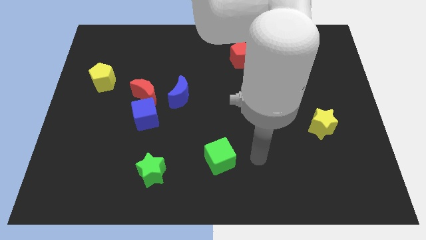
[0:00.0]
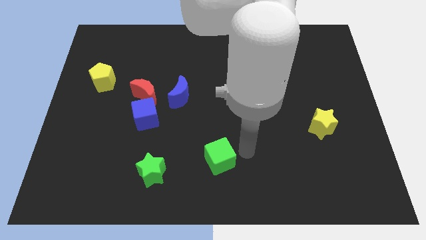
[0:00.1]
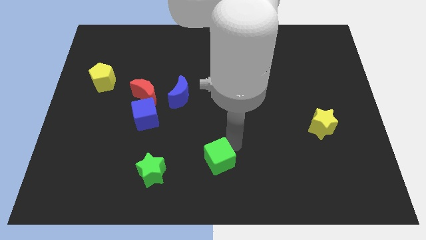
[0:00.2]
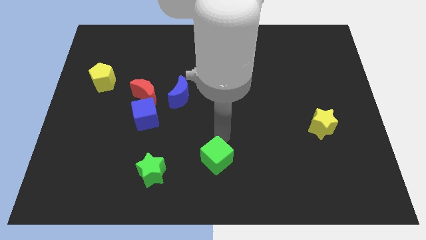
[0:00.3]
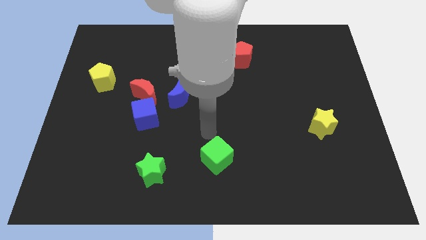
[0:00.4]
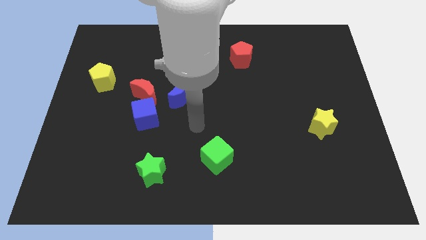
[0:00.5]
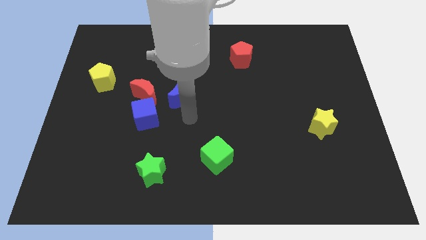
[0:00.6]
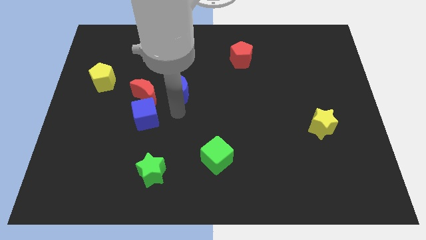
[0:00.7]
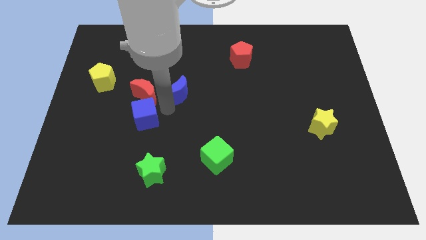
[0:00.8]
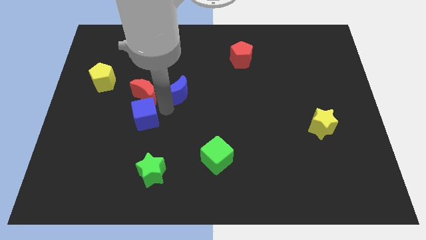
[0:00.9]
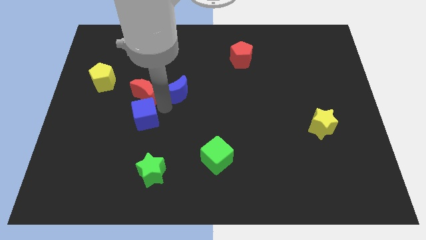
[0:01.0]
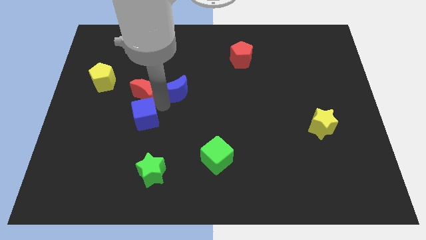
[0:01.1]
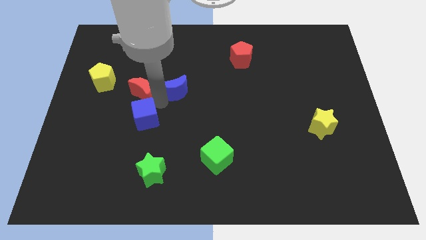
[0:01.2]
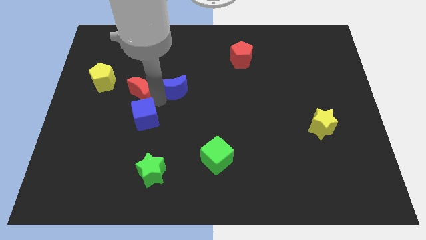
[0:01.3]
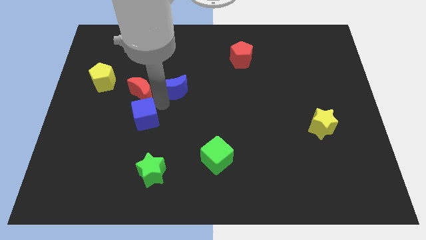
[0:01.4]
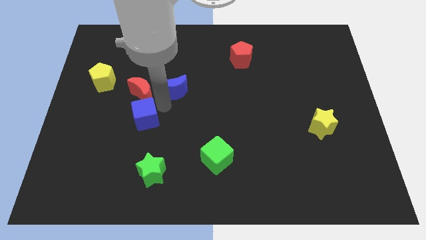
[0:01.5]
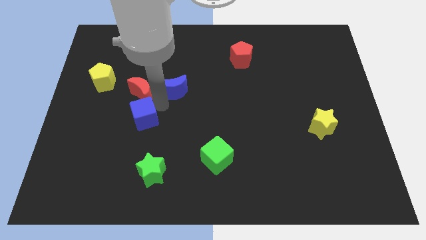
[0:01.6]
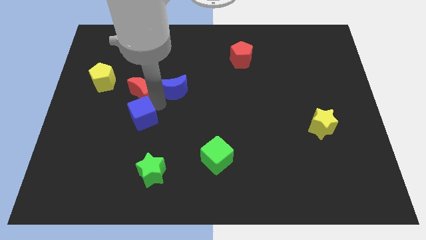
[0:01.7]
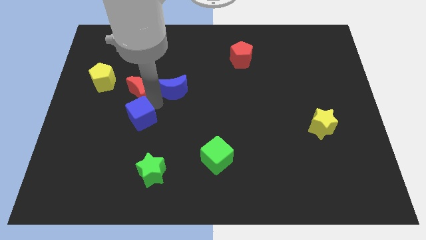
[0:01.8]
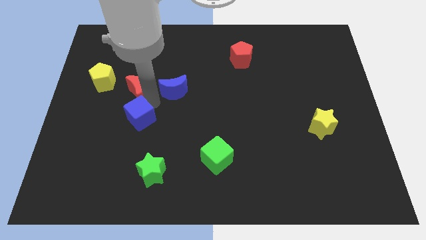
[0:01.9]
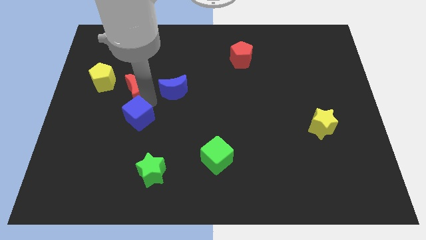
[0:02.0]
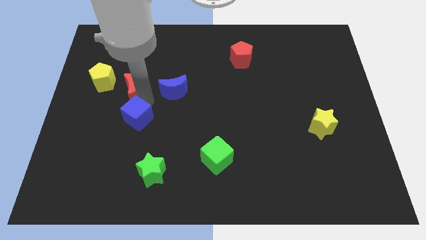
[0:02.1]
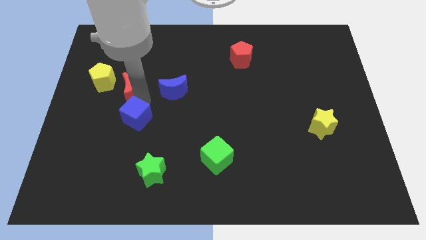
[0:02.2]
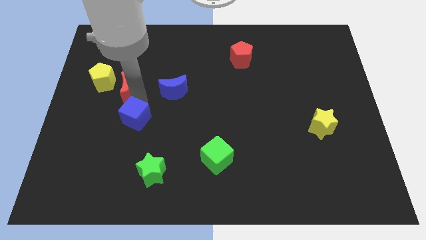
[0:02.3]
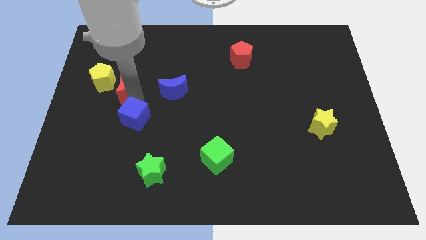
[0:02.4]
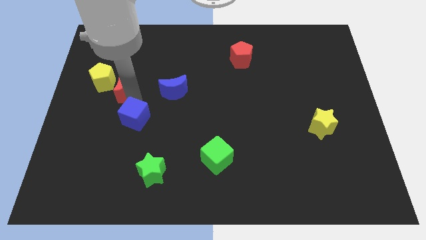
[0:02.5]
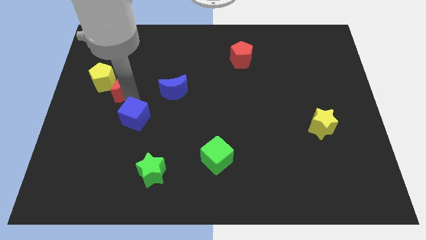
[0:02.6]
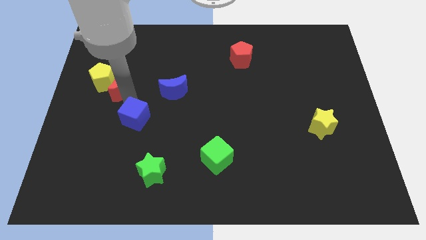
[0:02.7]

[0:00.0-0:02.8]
pull the red moon apart from the blue cube and blue moon

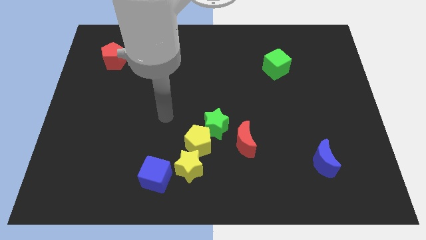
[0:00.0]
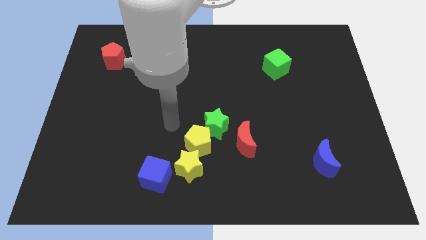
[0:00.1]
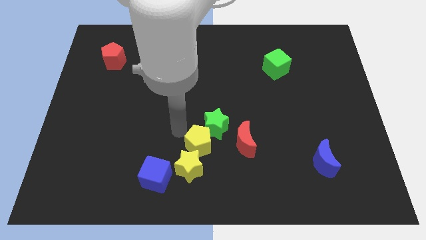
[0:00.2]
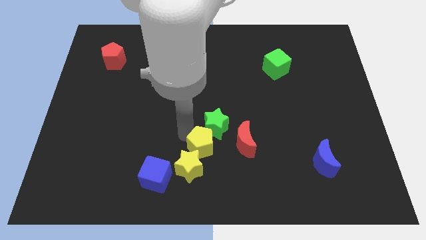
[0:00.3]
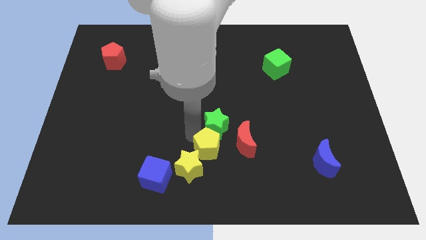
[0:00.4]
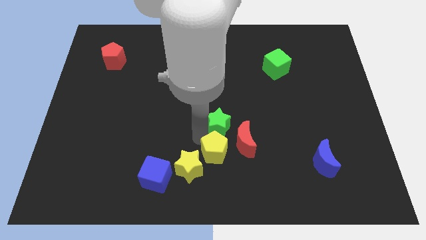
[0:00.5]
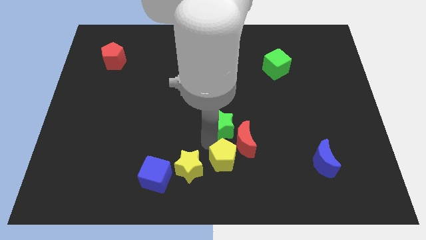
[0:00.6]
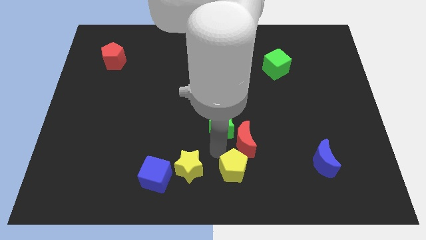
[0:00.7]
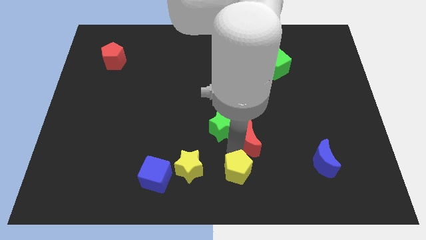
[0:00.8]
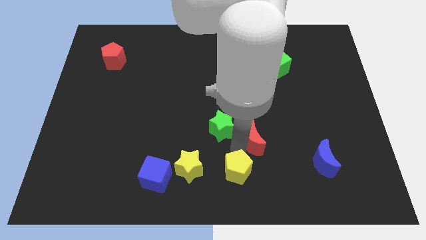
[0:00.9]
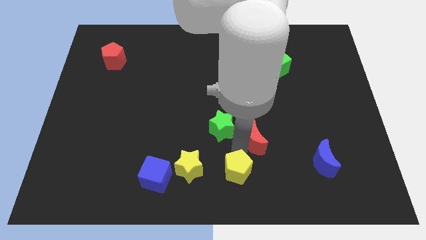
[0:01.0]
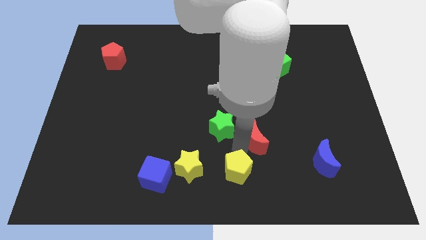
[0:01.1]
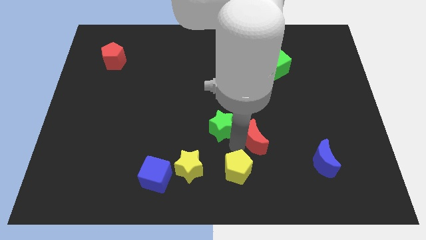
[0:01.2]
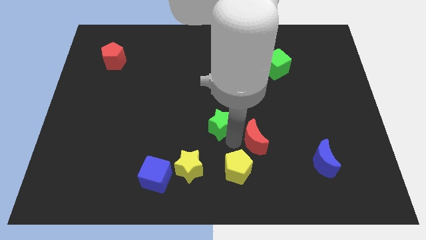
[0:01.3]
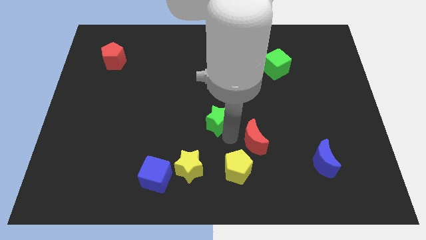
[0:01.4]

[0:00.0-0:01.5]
separate the green star from the yellow pentagon and red moon

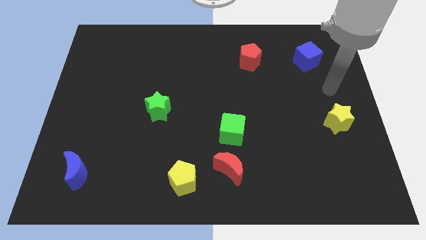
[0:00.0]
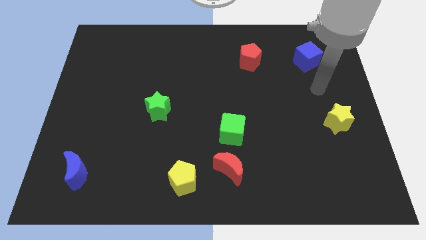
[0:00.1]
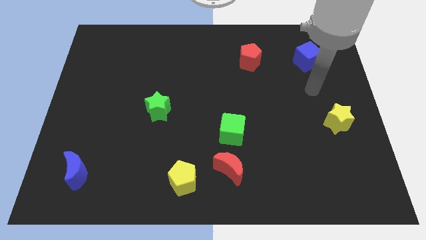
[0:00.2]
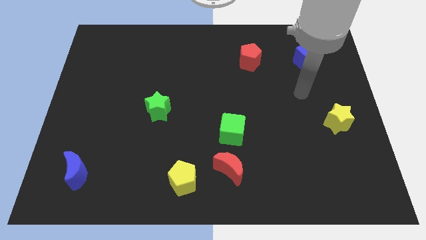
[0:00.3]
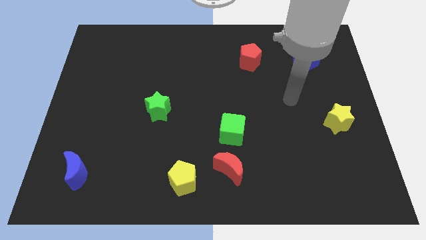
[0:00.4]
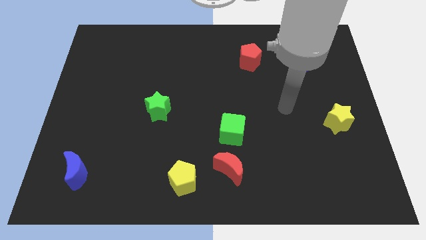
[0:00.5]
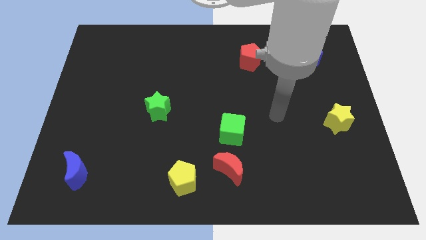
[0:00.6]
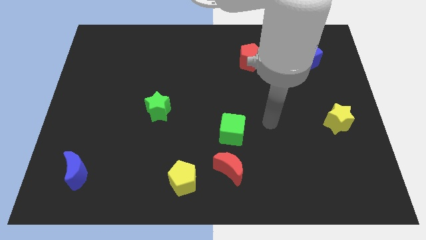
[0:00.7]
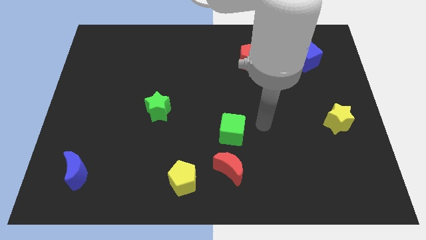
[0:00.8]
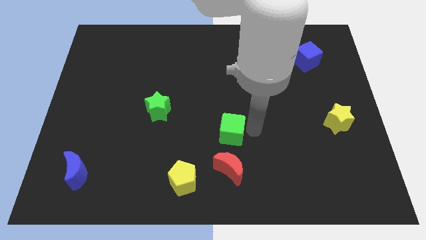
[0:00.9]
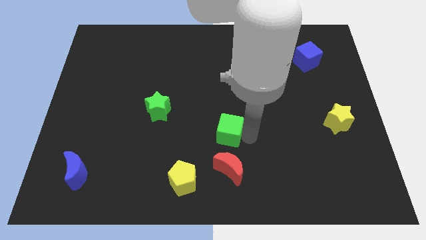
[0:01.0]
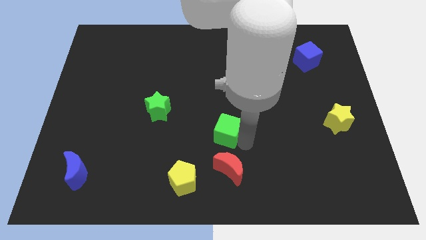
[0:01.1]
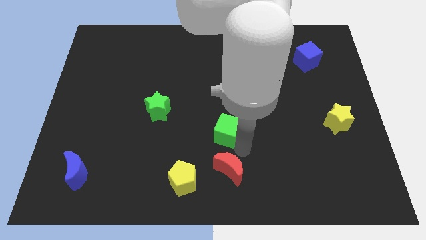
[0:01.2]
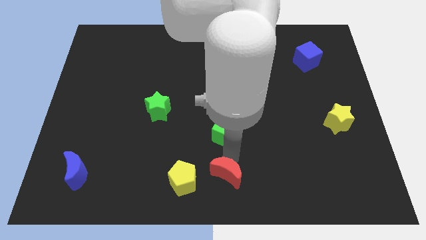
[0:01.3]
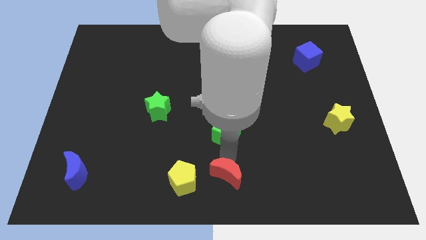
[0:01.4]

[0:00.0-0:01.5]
move the green cube away from the red moon

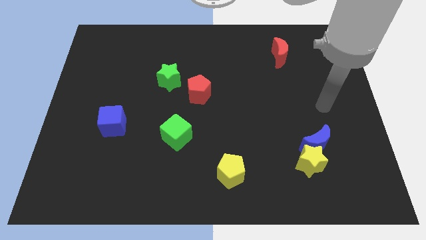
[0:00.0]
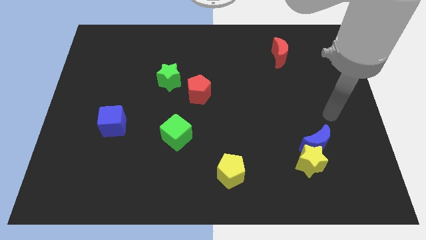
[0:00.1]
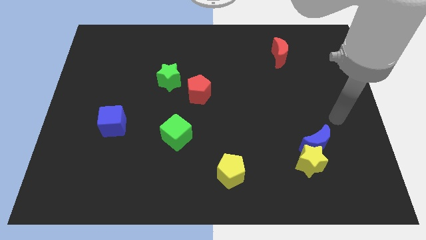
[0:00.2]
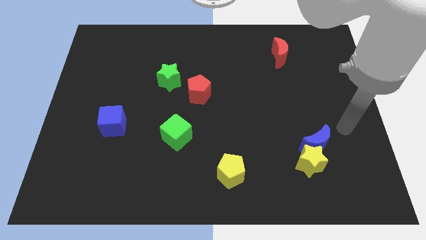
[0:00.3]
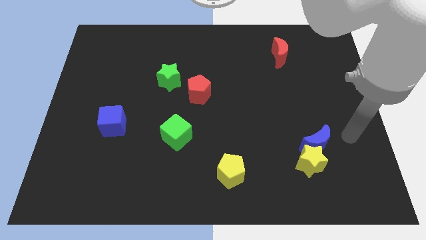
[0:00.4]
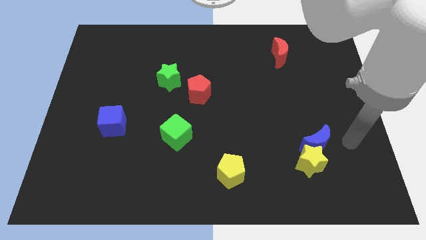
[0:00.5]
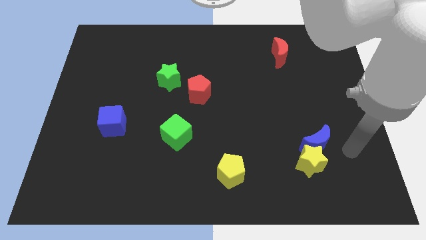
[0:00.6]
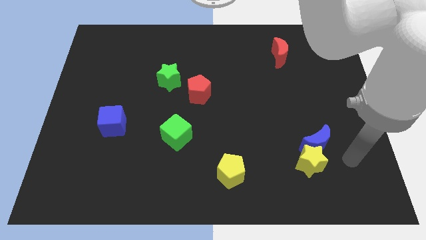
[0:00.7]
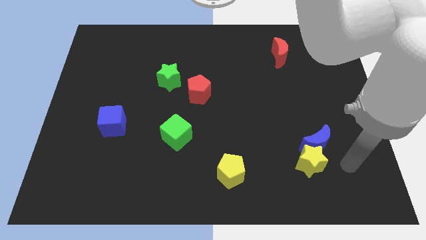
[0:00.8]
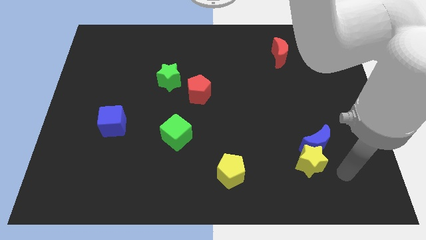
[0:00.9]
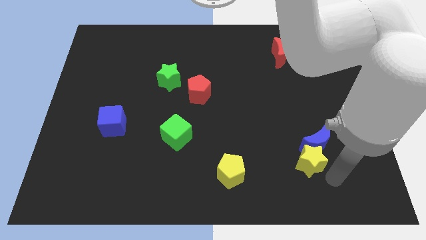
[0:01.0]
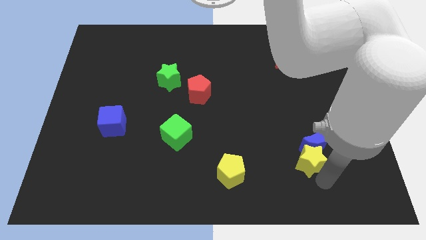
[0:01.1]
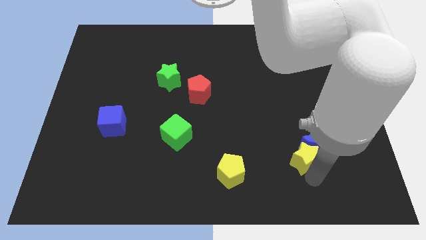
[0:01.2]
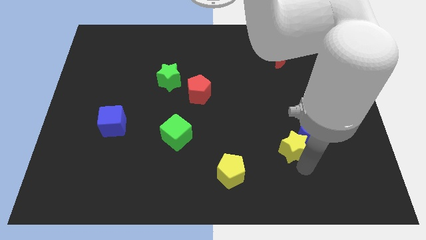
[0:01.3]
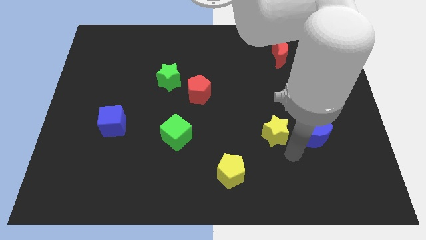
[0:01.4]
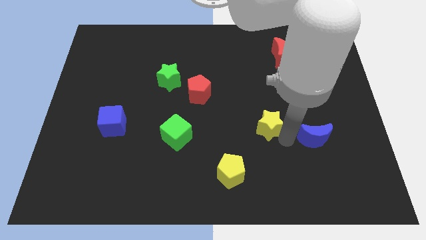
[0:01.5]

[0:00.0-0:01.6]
move the blue moon away from the yellow star

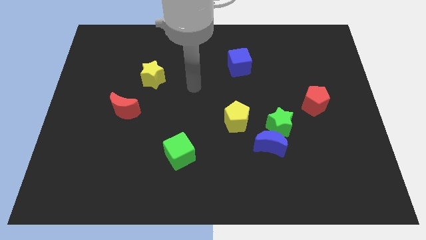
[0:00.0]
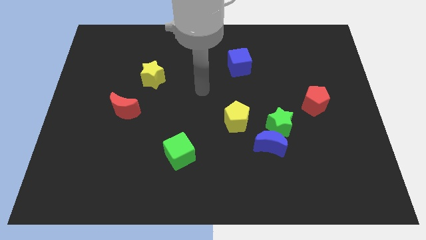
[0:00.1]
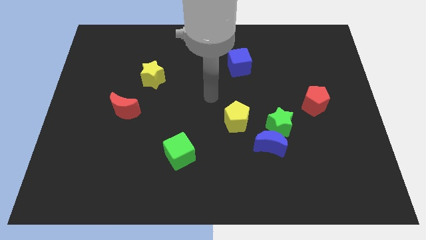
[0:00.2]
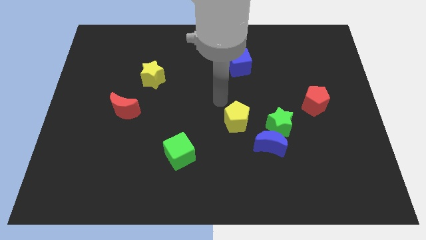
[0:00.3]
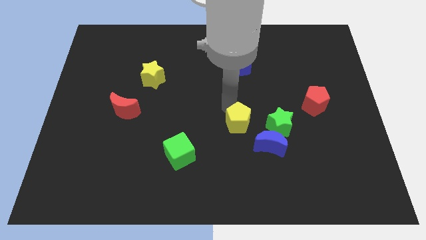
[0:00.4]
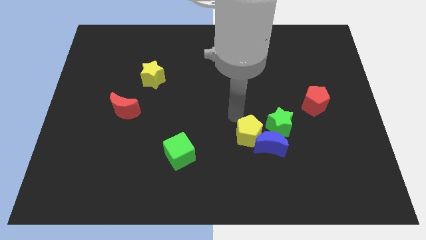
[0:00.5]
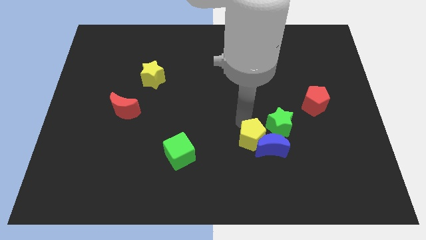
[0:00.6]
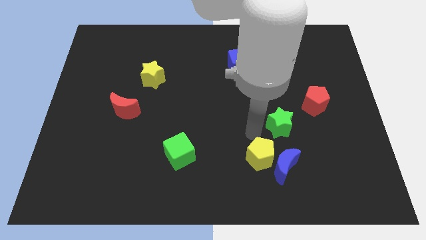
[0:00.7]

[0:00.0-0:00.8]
pull the green star apart from the blue moon and yellow pentagon

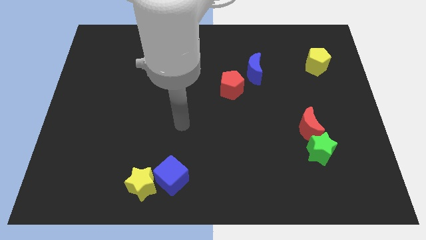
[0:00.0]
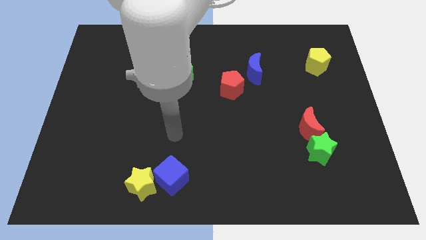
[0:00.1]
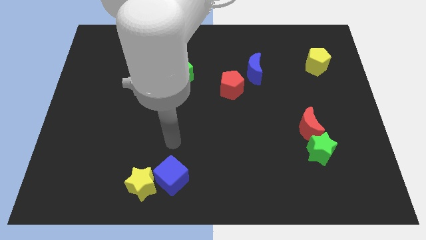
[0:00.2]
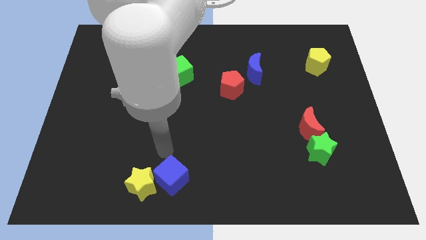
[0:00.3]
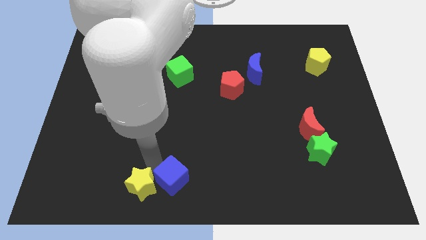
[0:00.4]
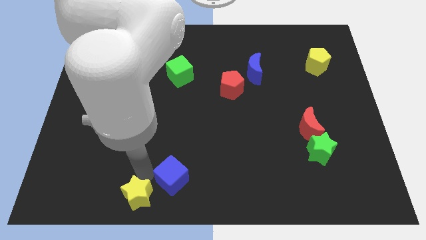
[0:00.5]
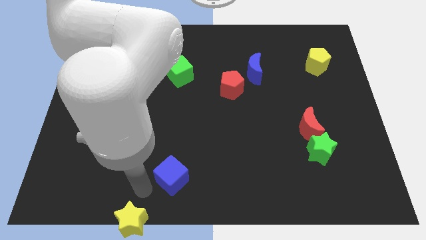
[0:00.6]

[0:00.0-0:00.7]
separate the blue cube from the yellow star

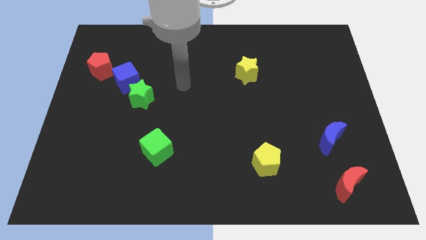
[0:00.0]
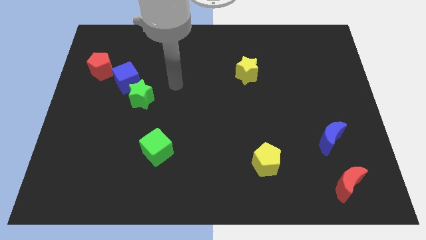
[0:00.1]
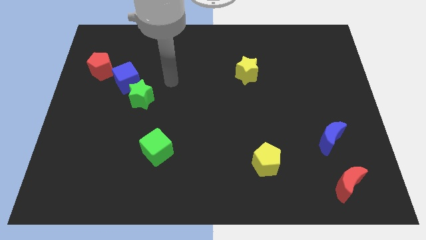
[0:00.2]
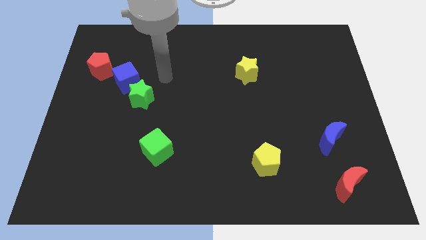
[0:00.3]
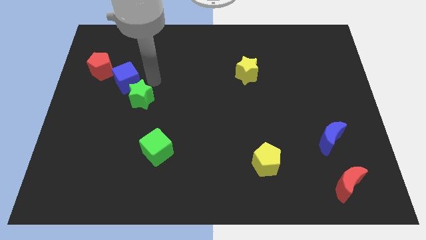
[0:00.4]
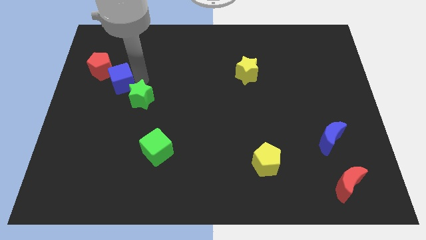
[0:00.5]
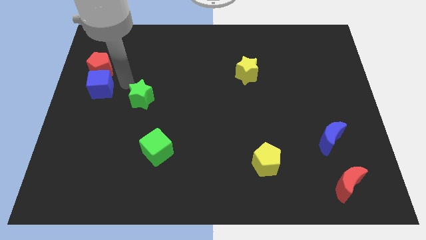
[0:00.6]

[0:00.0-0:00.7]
pull the green star apart from the blue cube
